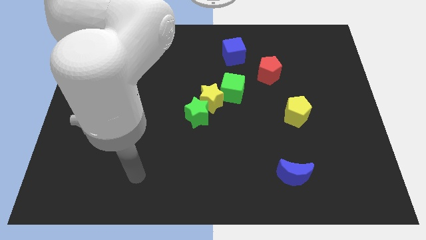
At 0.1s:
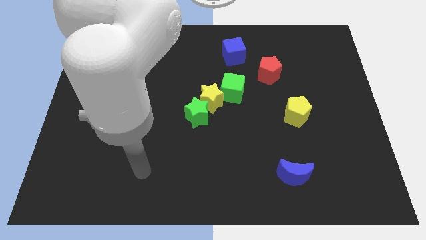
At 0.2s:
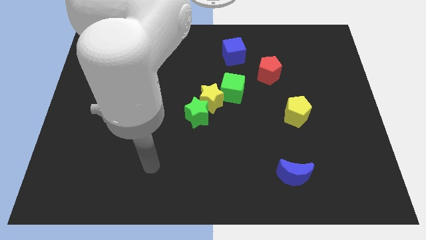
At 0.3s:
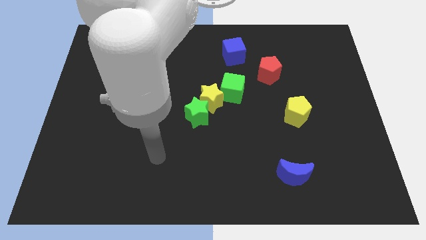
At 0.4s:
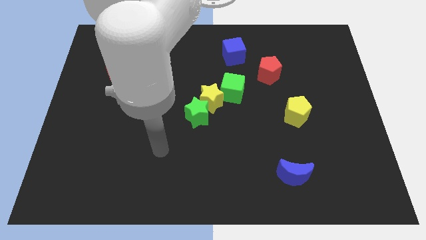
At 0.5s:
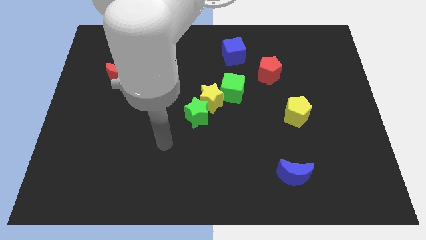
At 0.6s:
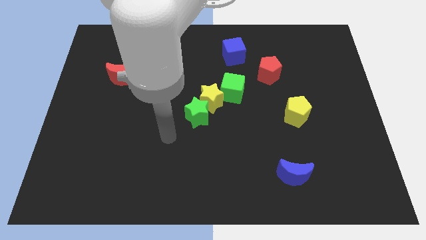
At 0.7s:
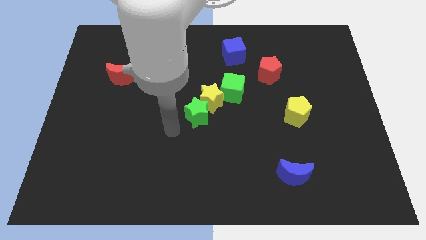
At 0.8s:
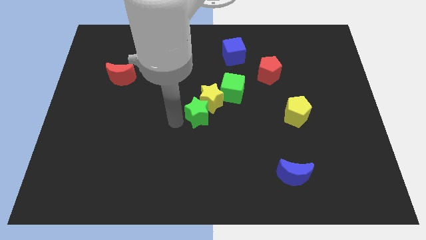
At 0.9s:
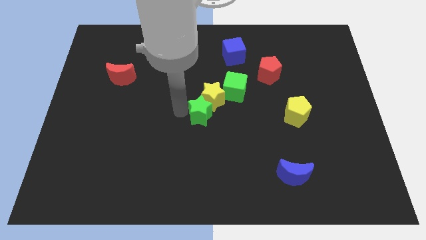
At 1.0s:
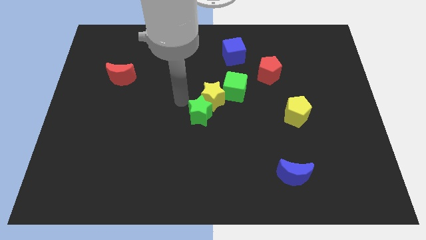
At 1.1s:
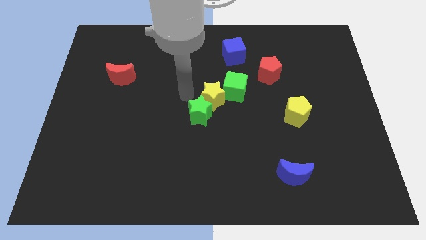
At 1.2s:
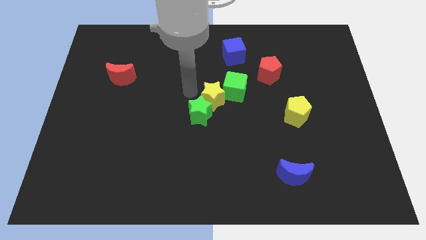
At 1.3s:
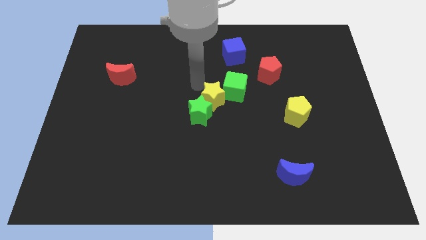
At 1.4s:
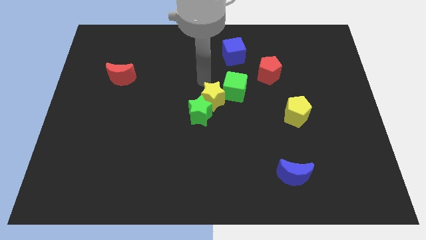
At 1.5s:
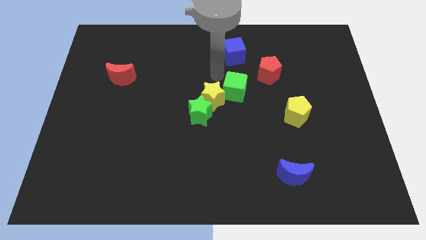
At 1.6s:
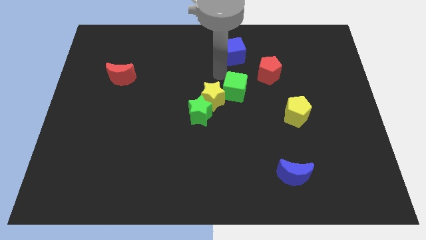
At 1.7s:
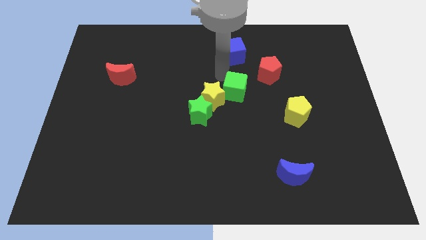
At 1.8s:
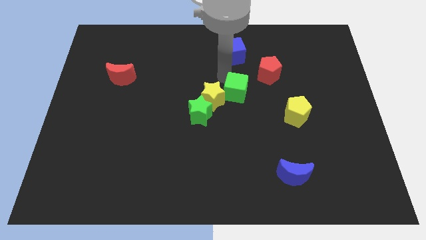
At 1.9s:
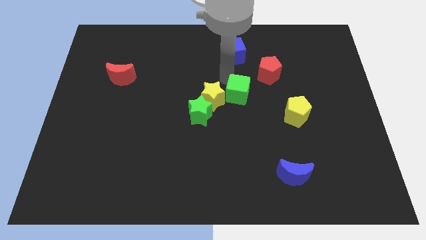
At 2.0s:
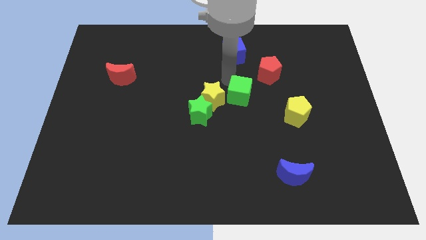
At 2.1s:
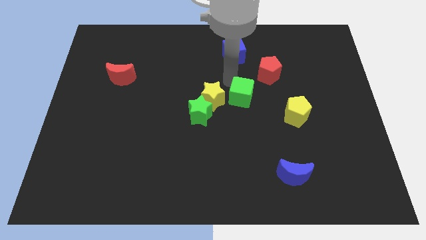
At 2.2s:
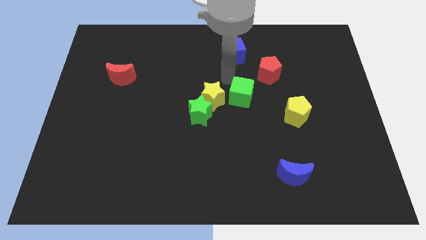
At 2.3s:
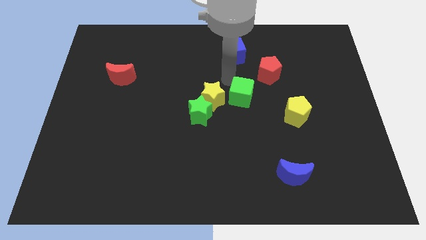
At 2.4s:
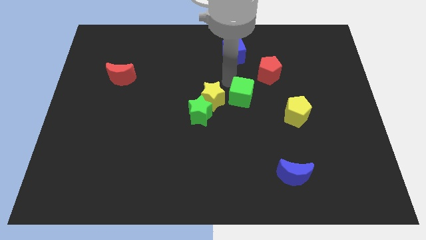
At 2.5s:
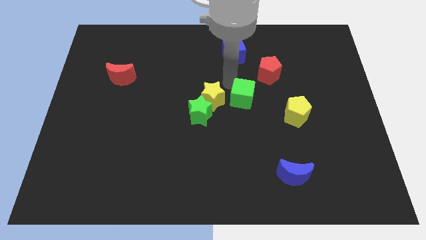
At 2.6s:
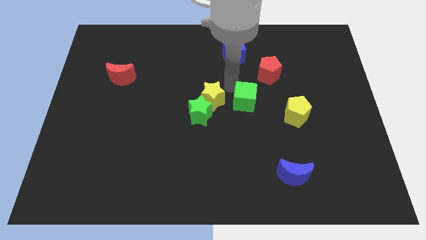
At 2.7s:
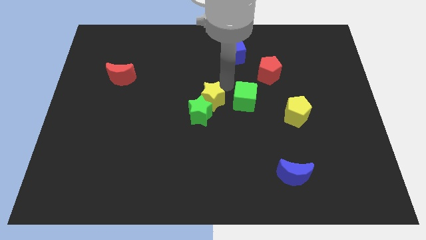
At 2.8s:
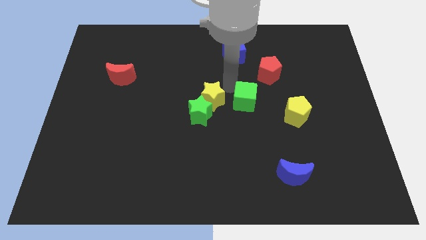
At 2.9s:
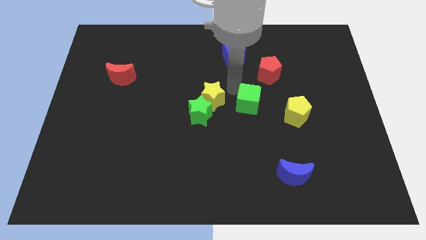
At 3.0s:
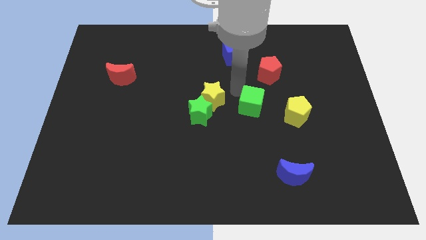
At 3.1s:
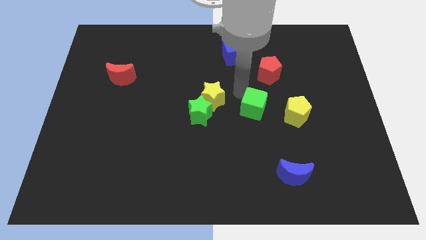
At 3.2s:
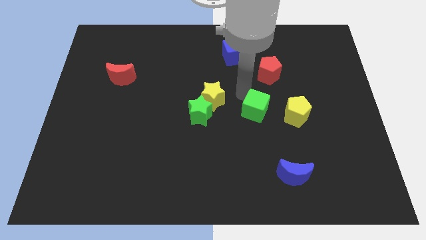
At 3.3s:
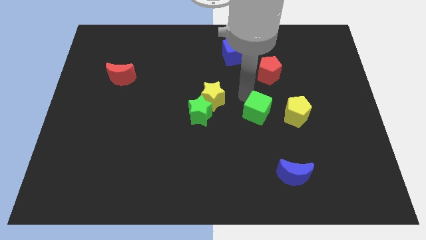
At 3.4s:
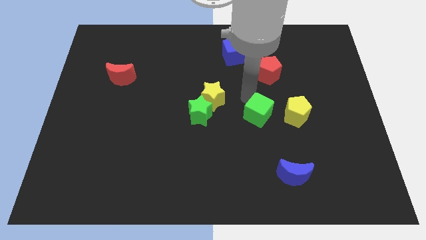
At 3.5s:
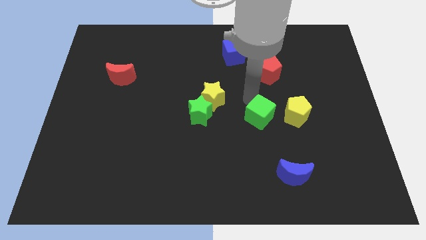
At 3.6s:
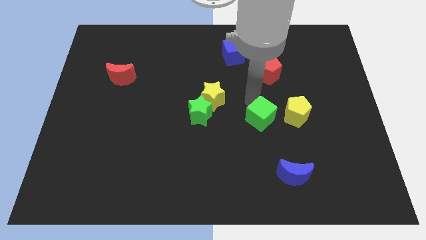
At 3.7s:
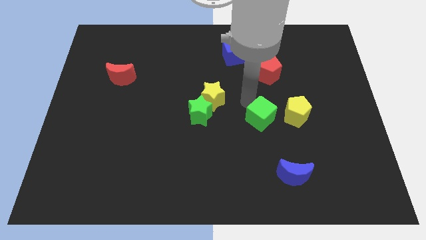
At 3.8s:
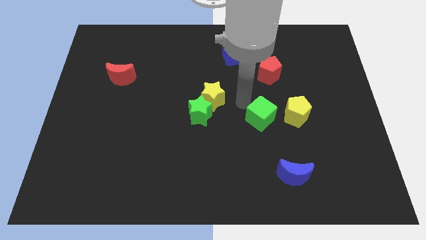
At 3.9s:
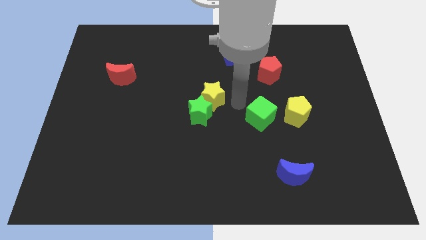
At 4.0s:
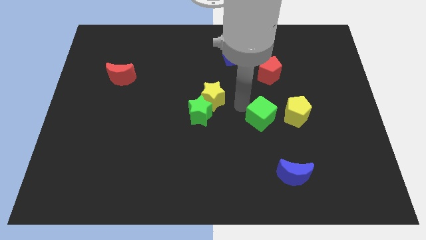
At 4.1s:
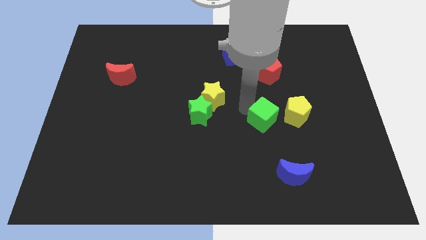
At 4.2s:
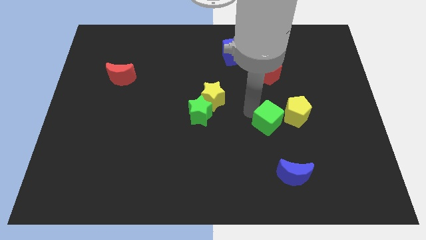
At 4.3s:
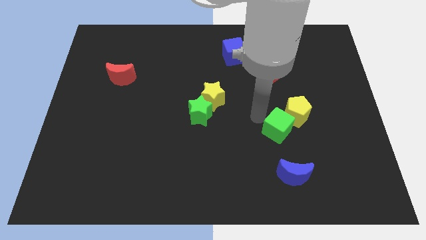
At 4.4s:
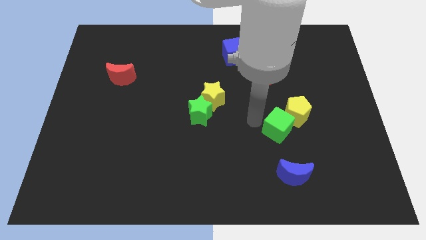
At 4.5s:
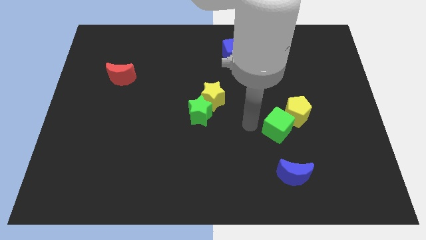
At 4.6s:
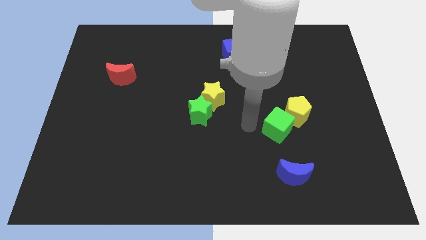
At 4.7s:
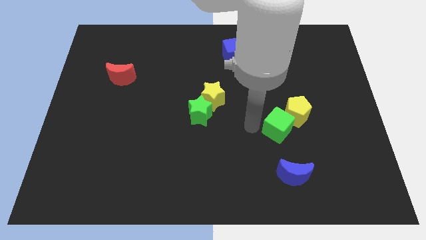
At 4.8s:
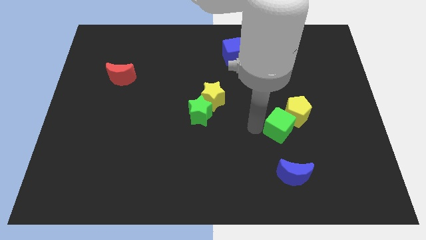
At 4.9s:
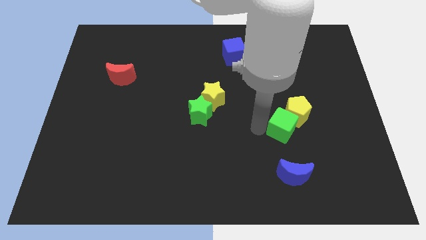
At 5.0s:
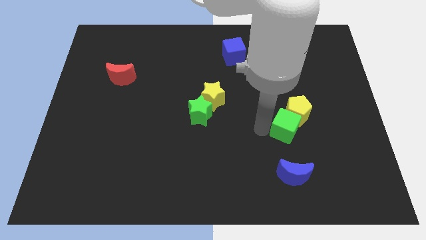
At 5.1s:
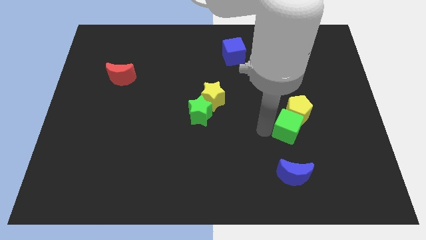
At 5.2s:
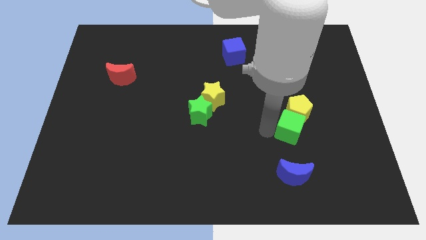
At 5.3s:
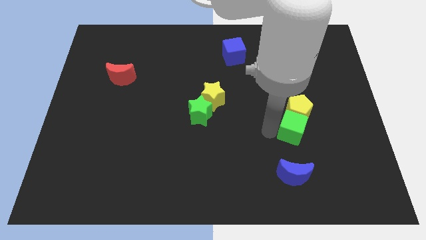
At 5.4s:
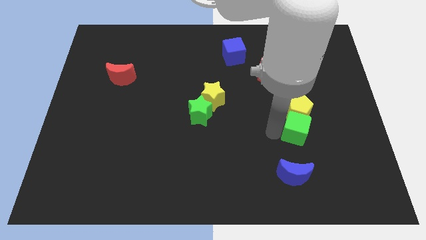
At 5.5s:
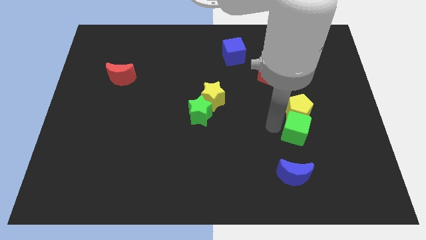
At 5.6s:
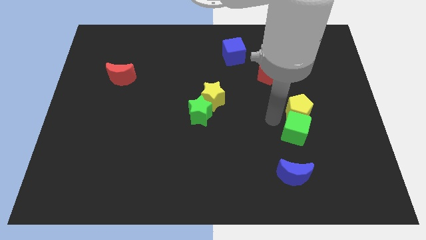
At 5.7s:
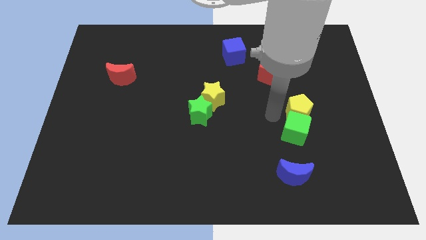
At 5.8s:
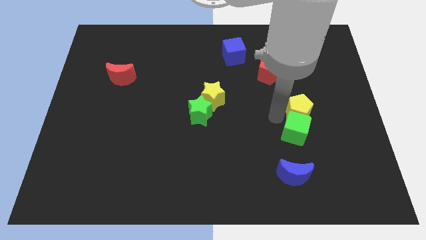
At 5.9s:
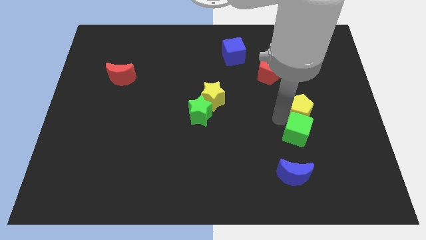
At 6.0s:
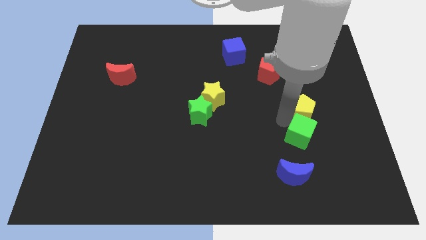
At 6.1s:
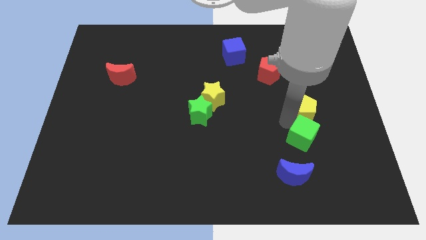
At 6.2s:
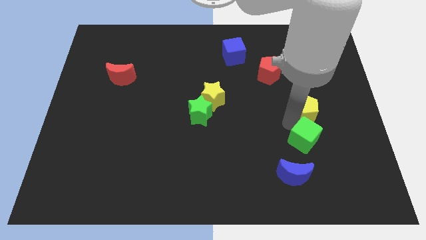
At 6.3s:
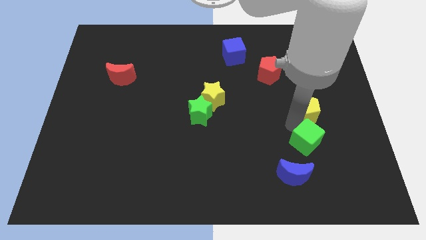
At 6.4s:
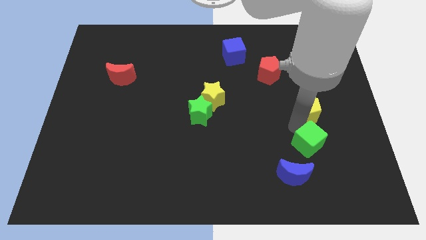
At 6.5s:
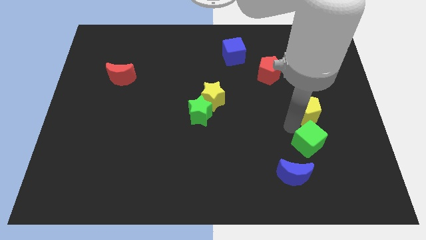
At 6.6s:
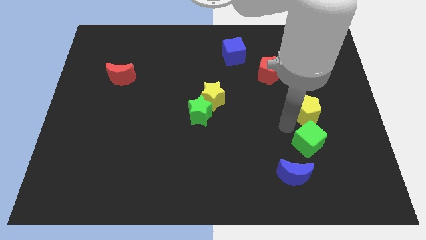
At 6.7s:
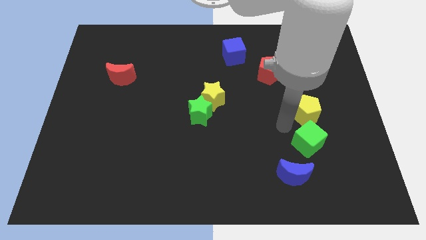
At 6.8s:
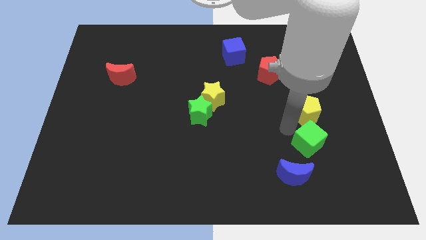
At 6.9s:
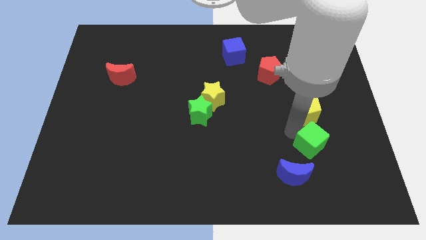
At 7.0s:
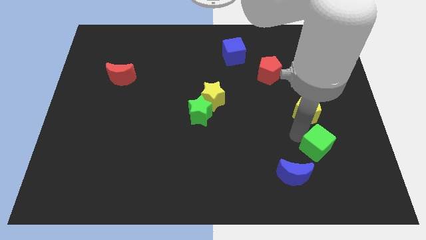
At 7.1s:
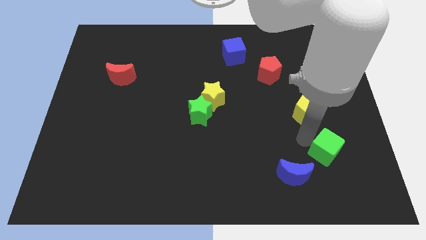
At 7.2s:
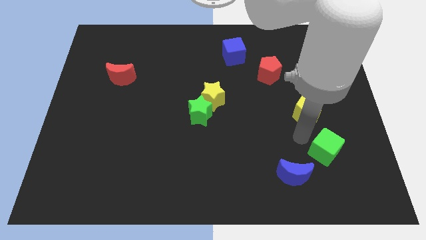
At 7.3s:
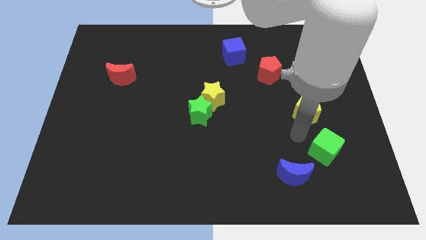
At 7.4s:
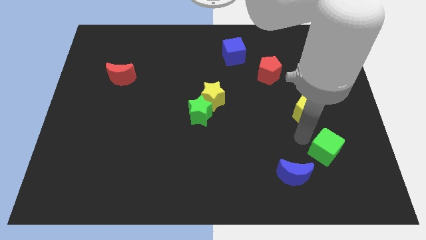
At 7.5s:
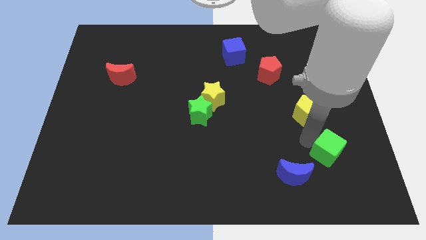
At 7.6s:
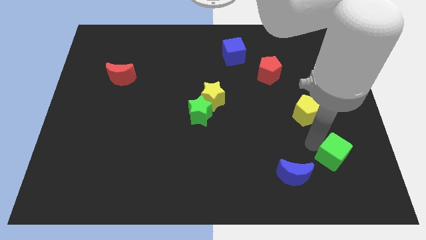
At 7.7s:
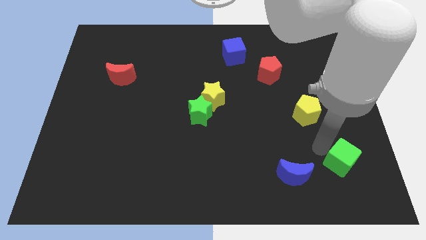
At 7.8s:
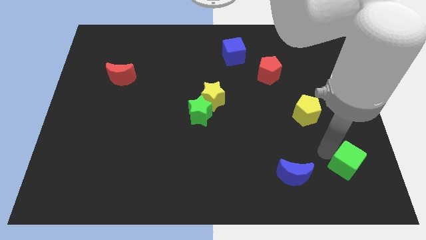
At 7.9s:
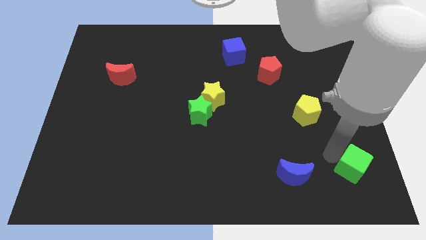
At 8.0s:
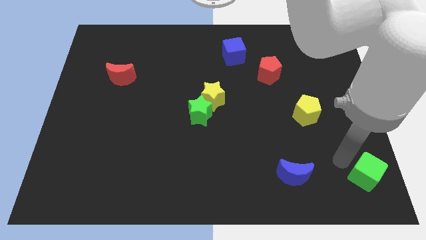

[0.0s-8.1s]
move the green cube to the lower right corner
